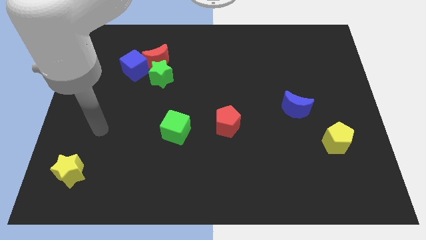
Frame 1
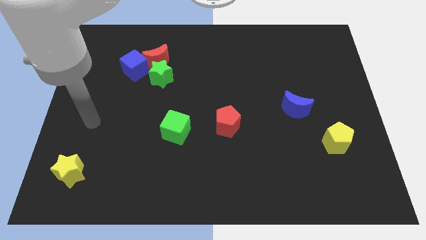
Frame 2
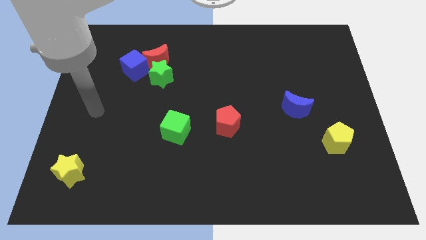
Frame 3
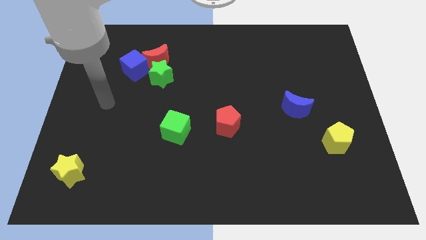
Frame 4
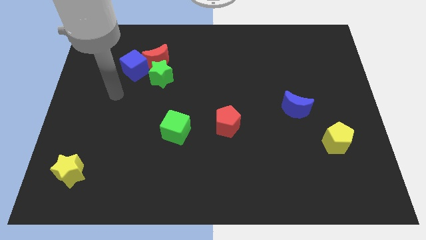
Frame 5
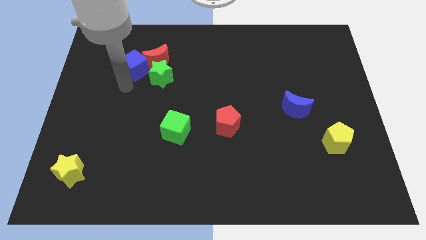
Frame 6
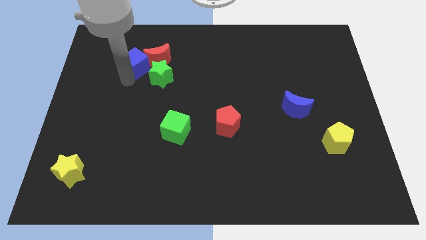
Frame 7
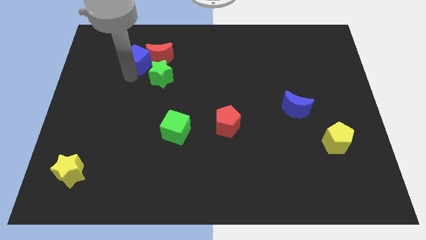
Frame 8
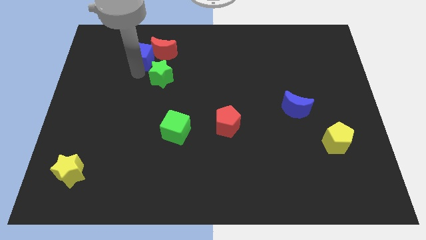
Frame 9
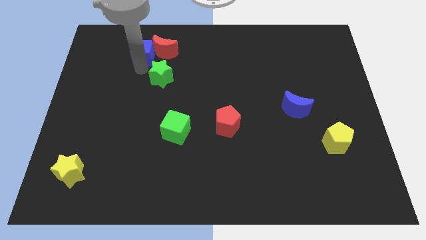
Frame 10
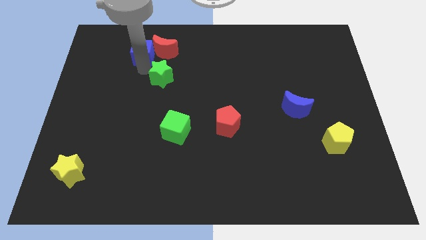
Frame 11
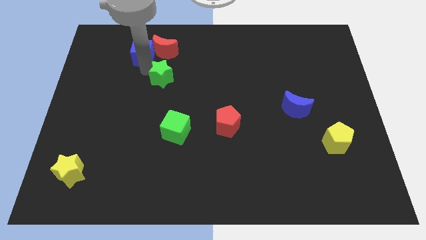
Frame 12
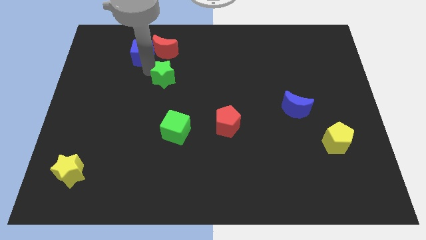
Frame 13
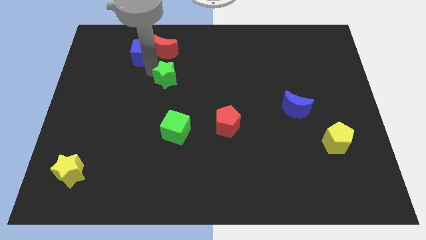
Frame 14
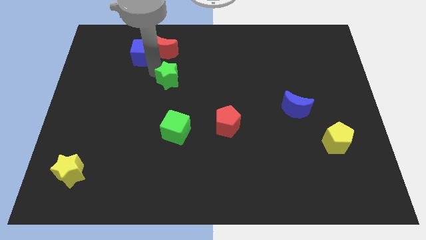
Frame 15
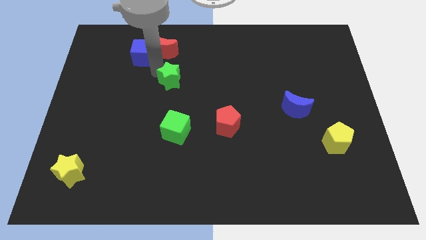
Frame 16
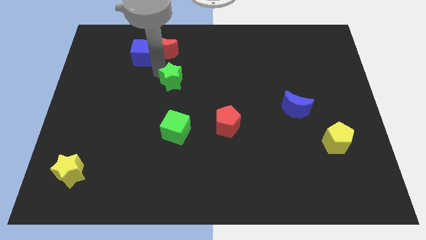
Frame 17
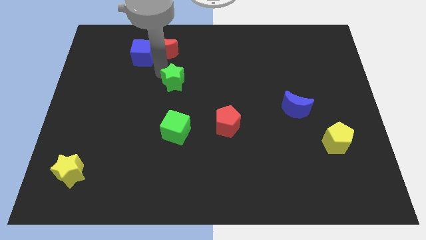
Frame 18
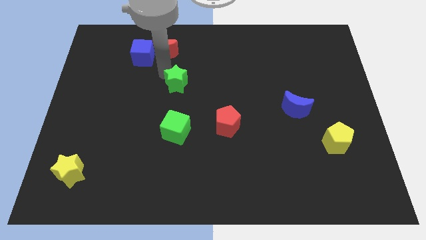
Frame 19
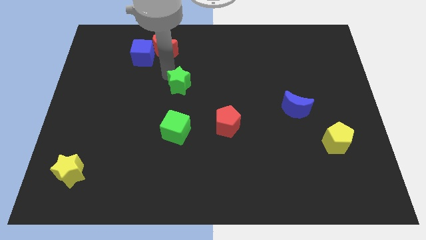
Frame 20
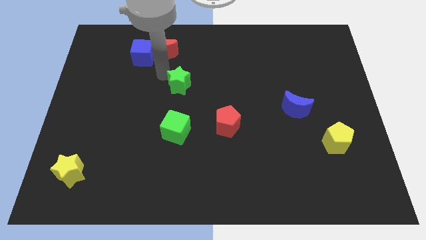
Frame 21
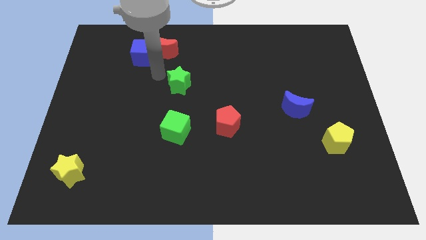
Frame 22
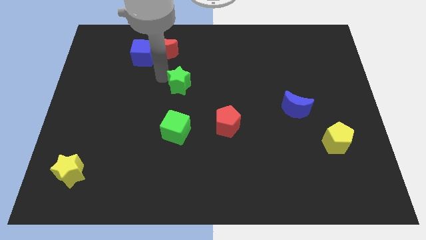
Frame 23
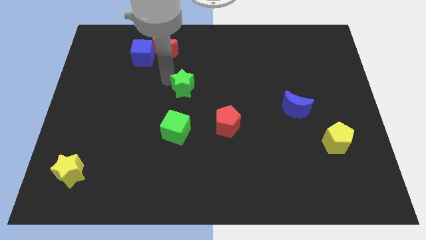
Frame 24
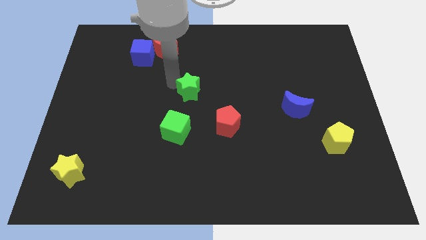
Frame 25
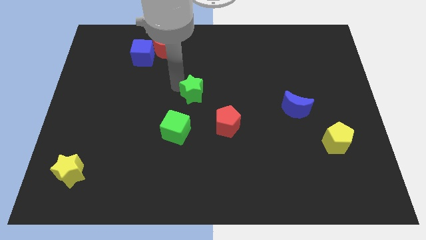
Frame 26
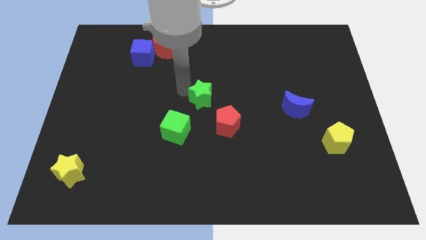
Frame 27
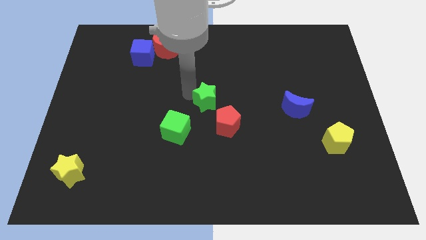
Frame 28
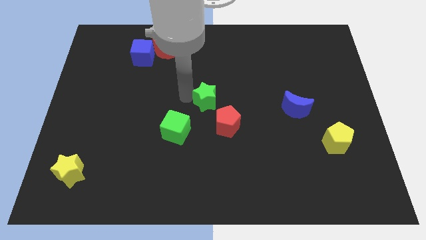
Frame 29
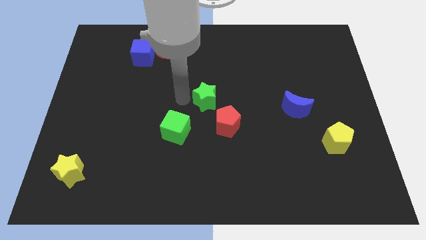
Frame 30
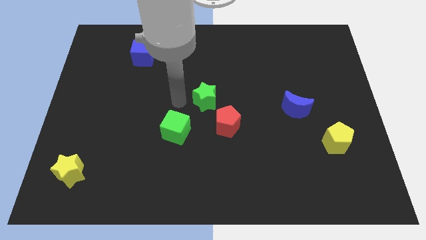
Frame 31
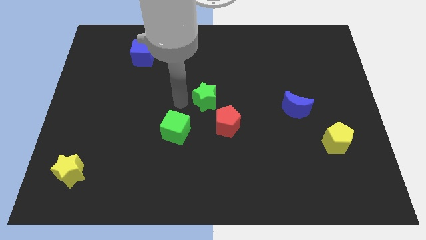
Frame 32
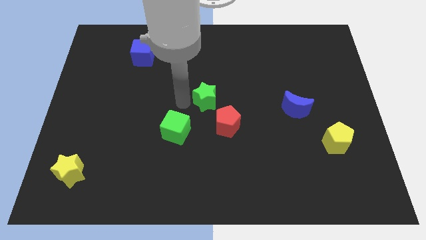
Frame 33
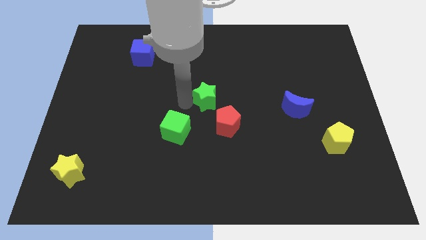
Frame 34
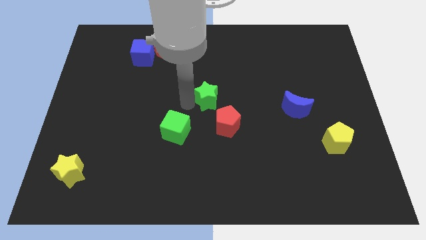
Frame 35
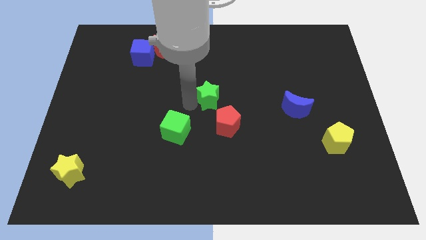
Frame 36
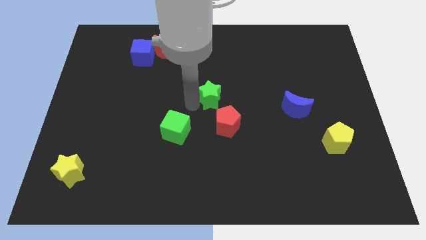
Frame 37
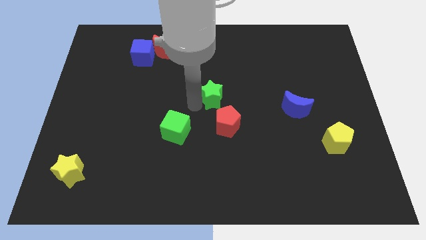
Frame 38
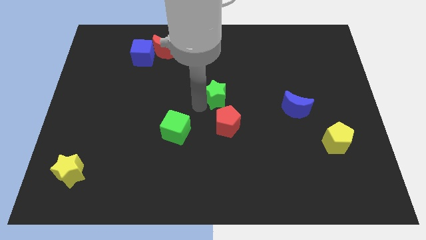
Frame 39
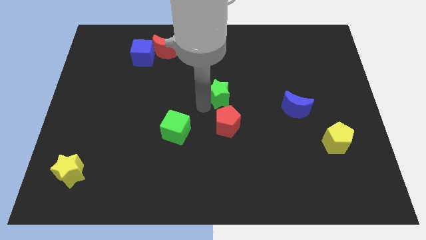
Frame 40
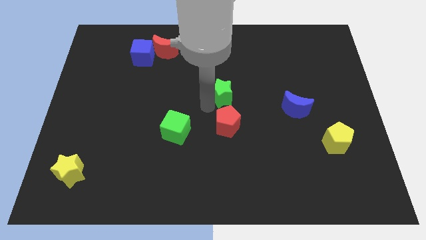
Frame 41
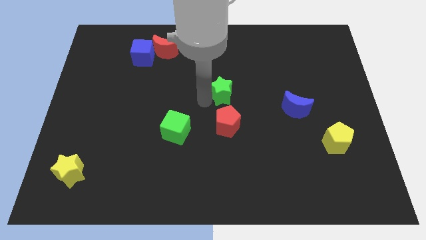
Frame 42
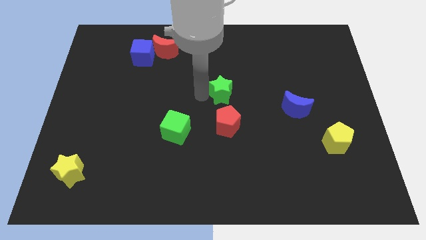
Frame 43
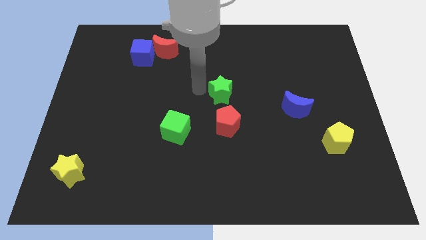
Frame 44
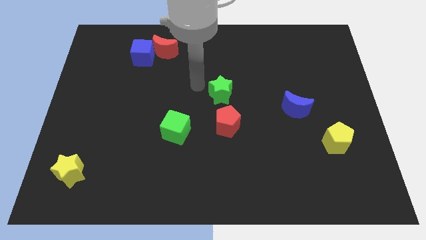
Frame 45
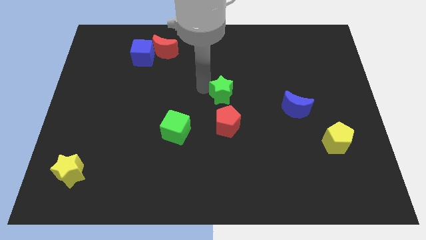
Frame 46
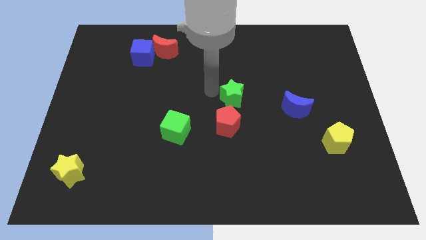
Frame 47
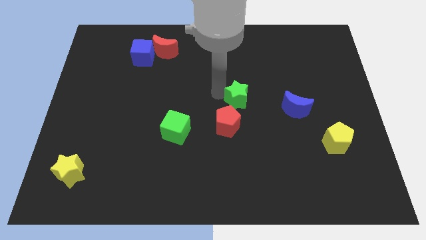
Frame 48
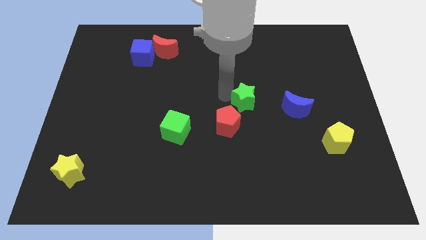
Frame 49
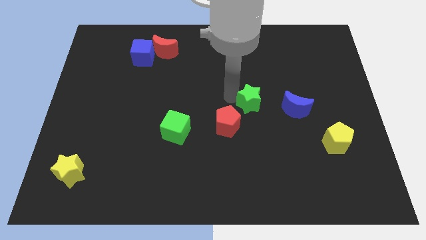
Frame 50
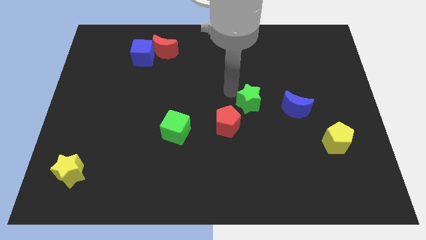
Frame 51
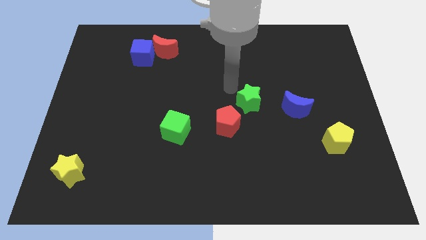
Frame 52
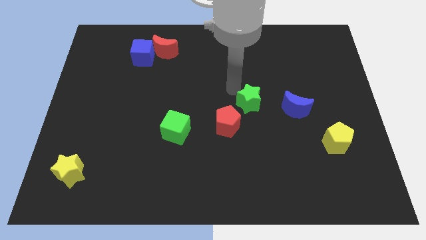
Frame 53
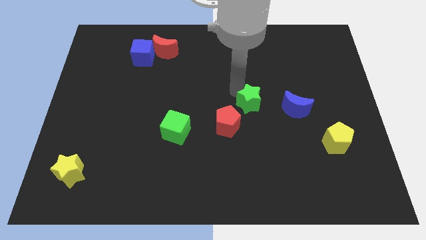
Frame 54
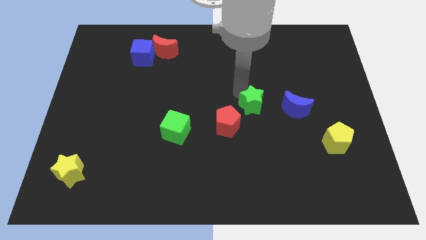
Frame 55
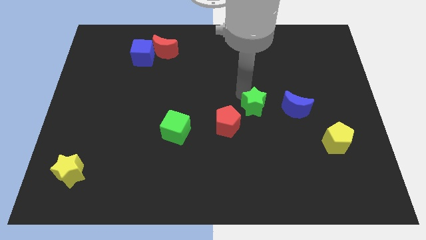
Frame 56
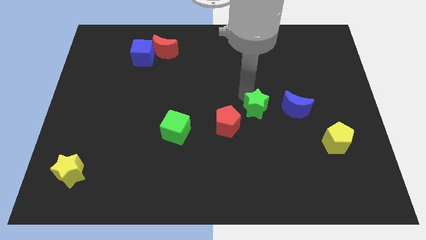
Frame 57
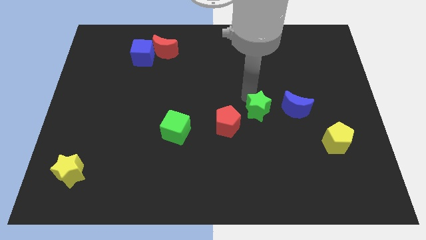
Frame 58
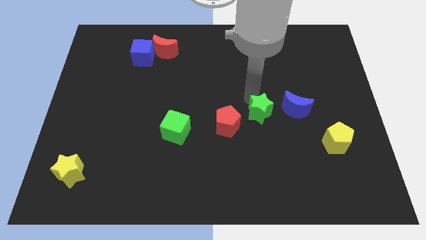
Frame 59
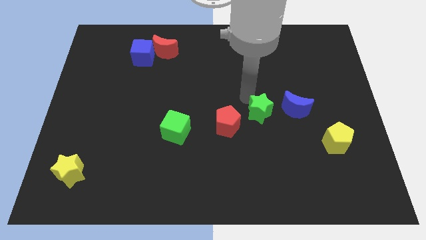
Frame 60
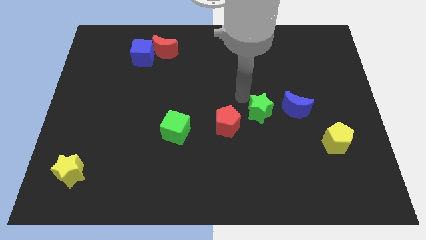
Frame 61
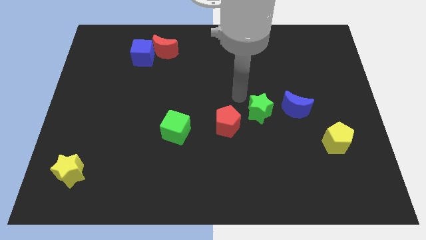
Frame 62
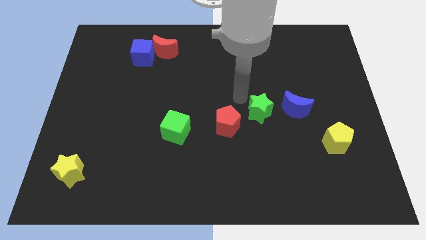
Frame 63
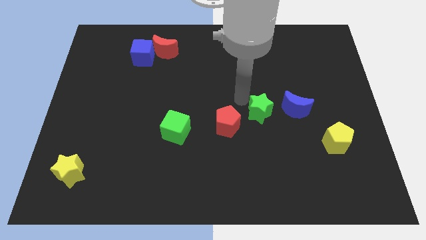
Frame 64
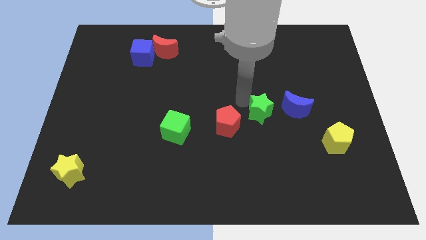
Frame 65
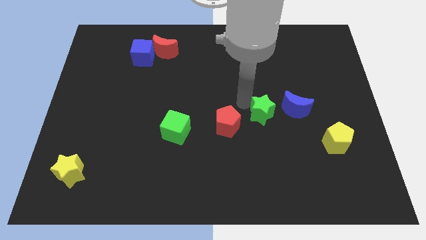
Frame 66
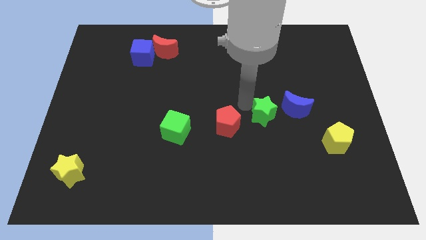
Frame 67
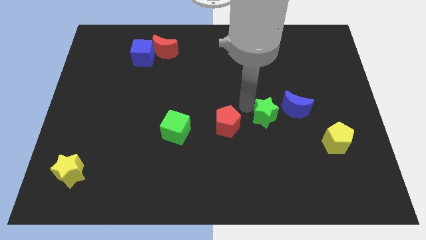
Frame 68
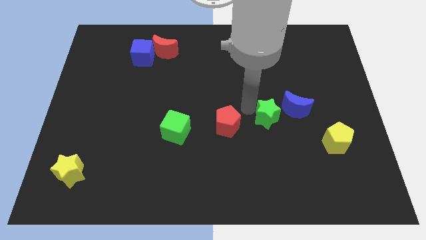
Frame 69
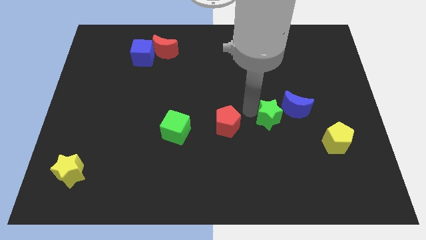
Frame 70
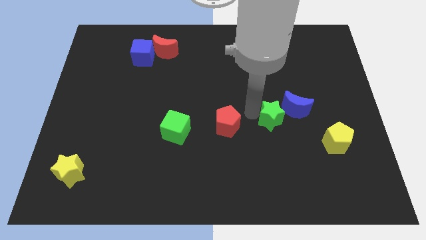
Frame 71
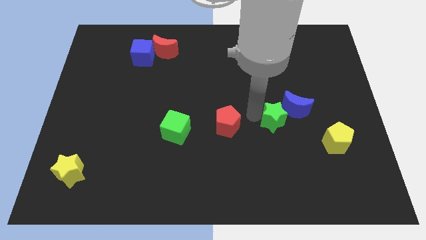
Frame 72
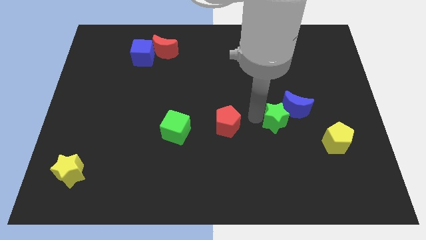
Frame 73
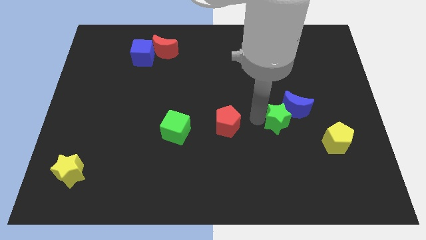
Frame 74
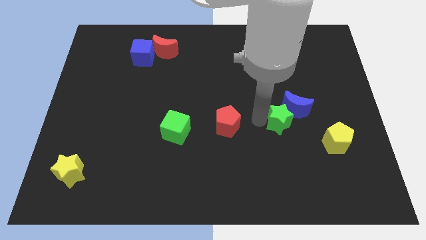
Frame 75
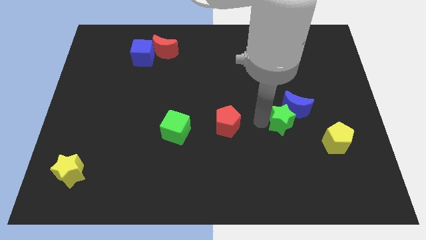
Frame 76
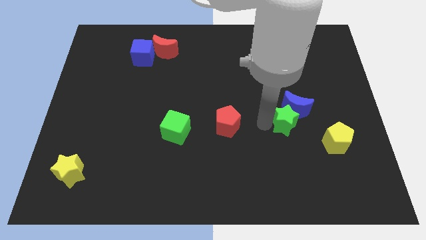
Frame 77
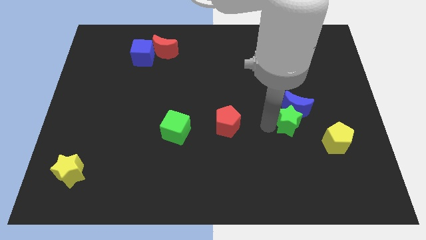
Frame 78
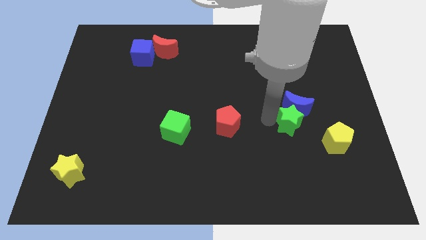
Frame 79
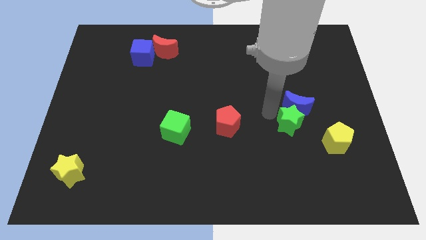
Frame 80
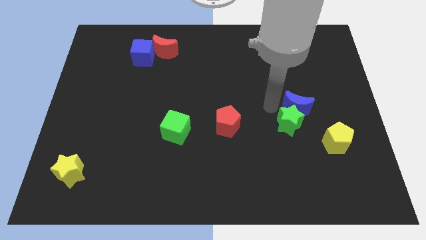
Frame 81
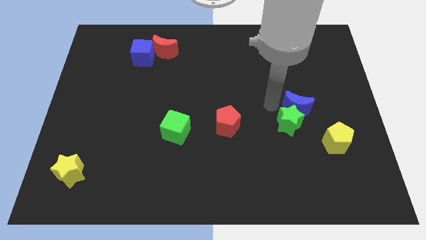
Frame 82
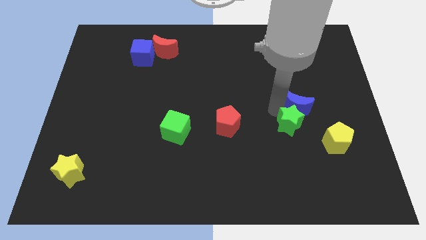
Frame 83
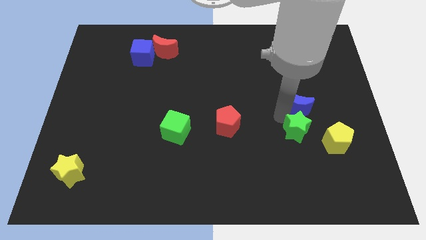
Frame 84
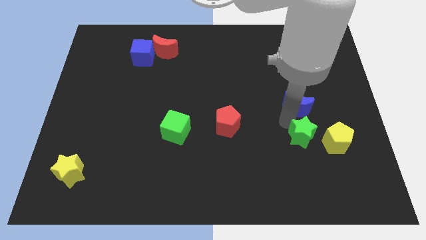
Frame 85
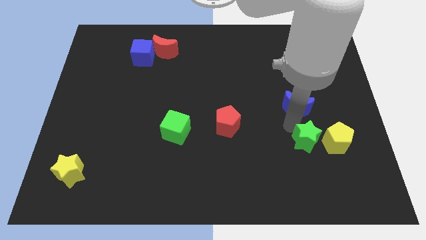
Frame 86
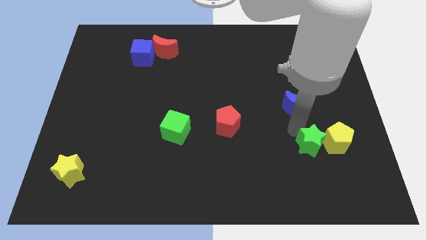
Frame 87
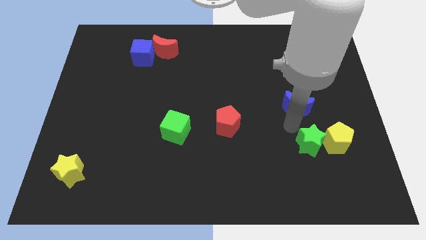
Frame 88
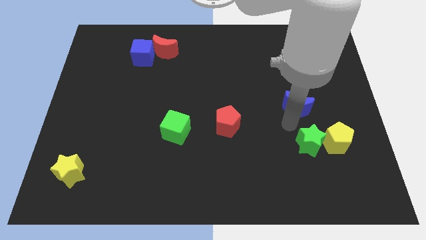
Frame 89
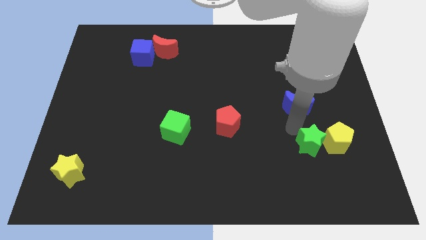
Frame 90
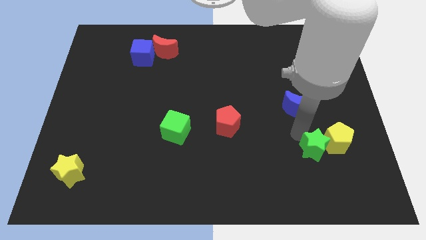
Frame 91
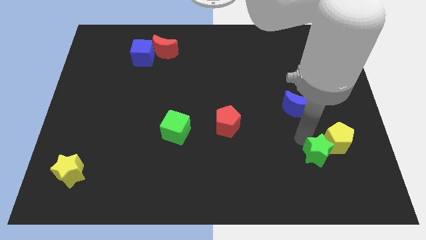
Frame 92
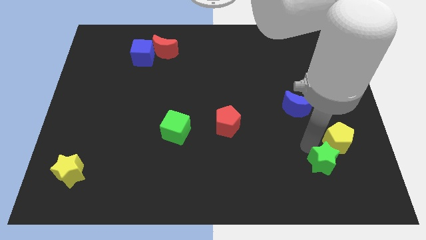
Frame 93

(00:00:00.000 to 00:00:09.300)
put the green star to the bottom side of the yellow pentagon
